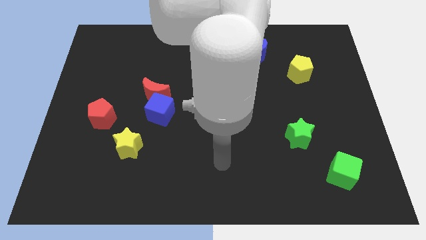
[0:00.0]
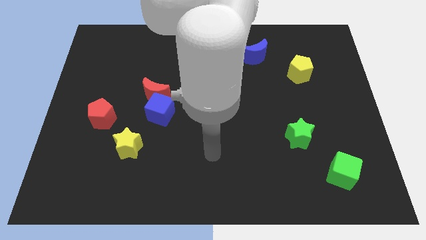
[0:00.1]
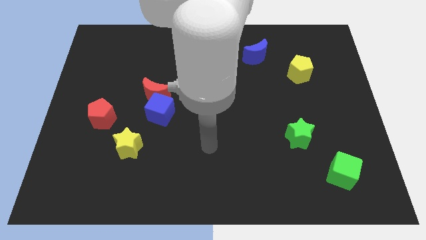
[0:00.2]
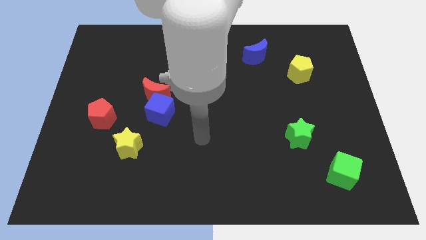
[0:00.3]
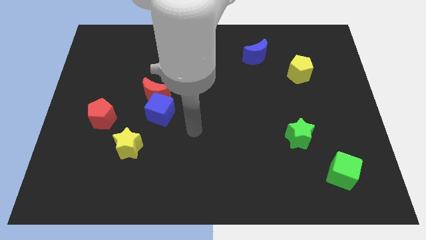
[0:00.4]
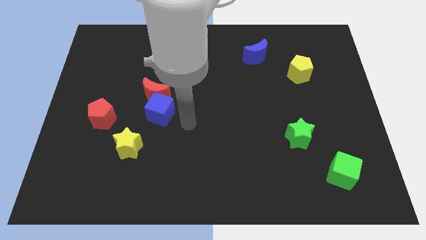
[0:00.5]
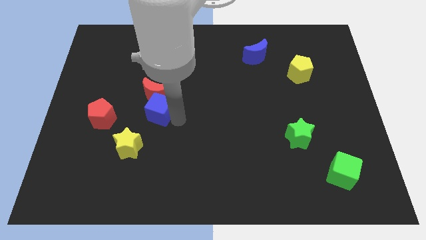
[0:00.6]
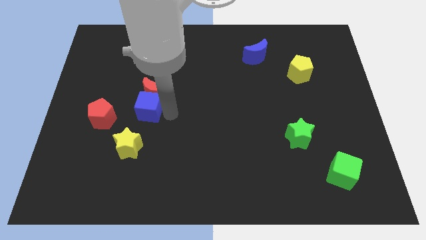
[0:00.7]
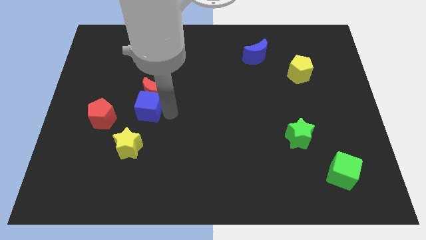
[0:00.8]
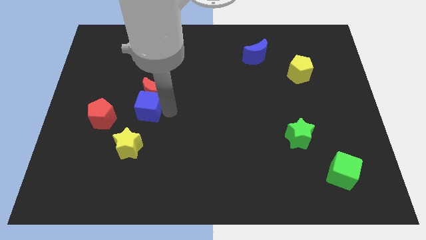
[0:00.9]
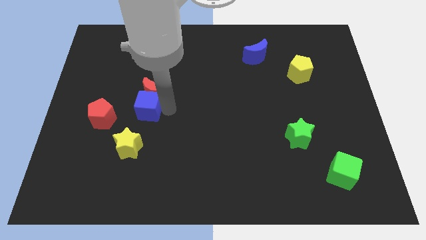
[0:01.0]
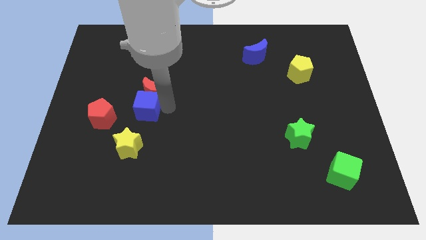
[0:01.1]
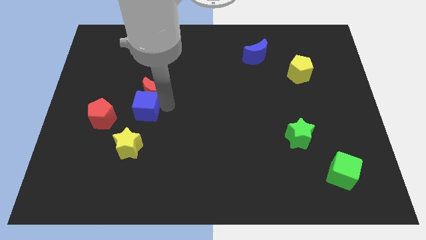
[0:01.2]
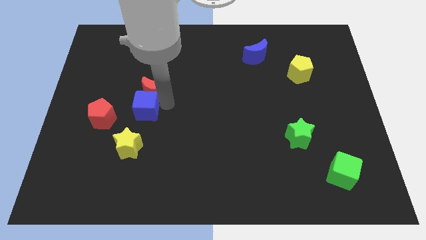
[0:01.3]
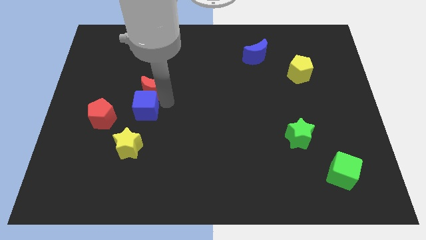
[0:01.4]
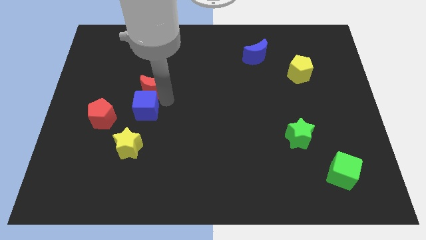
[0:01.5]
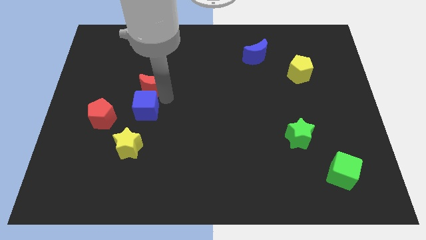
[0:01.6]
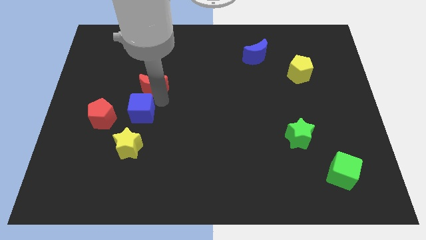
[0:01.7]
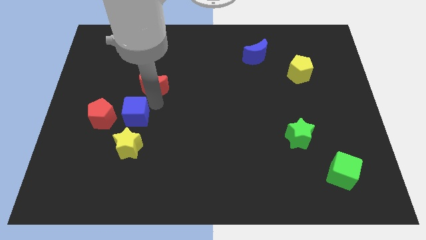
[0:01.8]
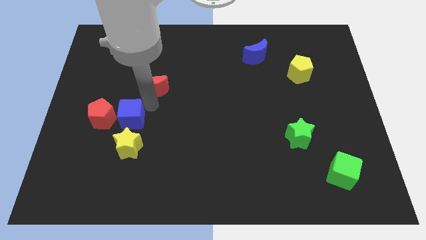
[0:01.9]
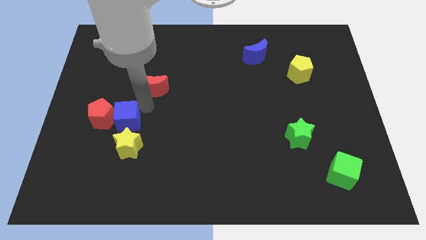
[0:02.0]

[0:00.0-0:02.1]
separate the red moon from the blue cube

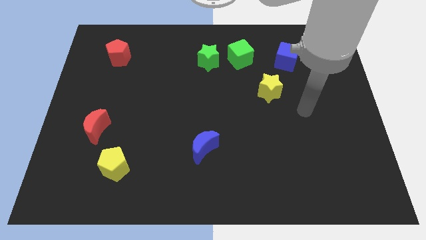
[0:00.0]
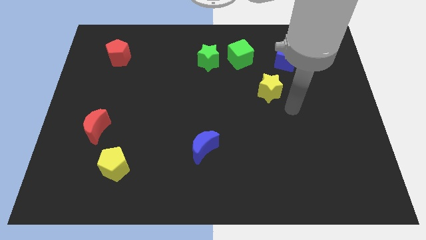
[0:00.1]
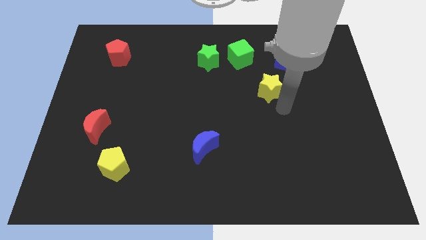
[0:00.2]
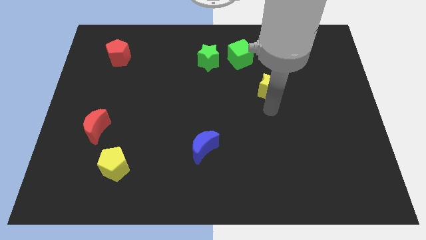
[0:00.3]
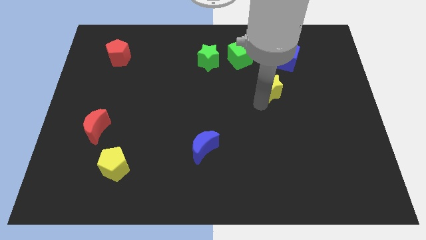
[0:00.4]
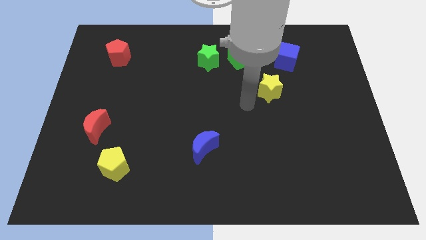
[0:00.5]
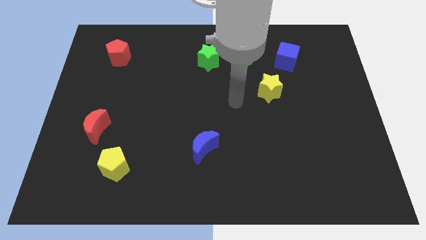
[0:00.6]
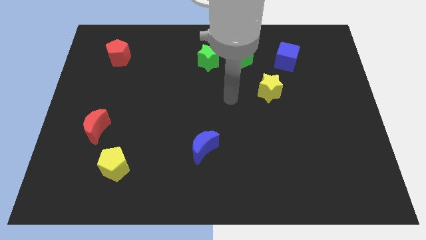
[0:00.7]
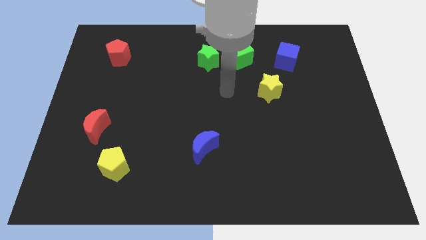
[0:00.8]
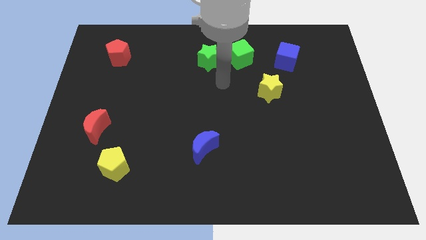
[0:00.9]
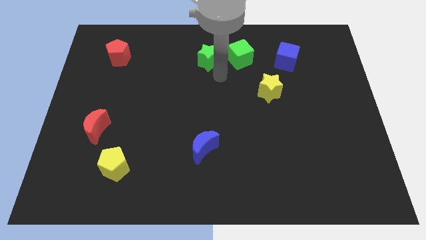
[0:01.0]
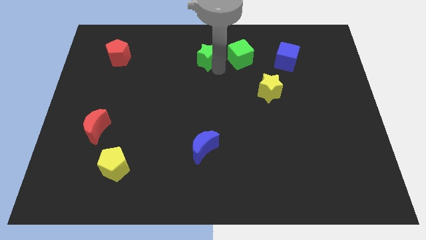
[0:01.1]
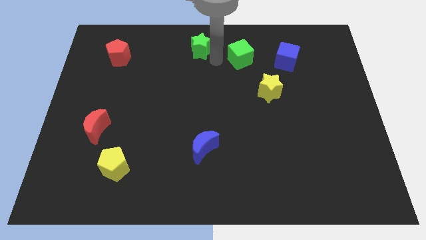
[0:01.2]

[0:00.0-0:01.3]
separate the green cube from the green star

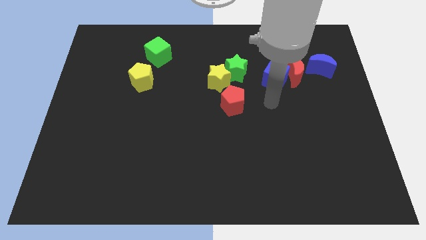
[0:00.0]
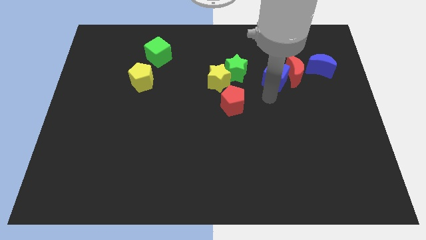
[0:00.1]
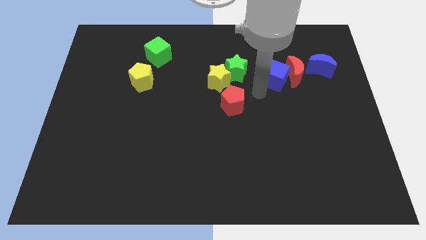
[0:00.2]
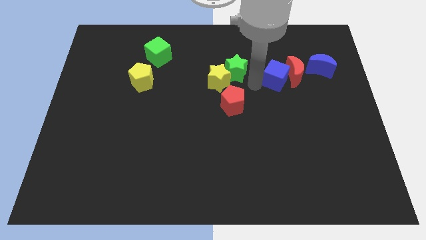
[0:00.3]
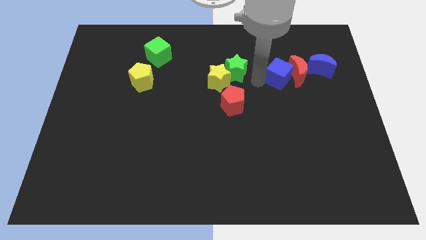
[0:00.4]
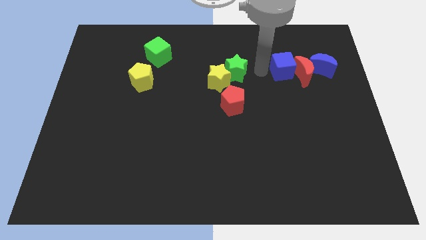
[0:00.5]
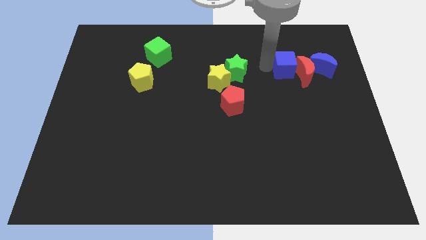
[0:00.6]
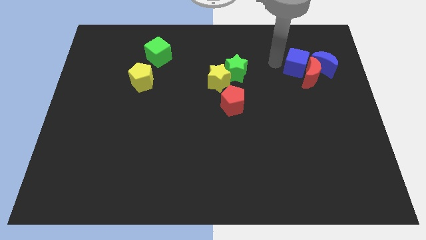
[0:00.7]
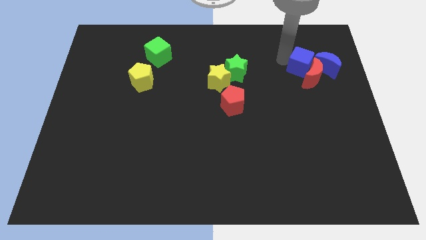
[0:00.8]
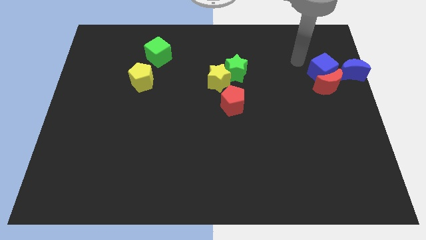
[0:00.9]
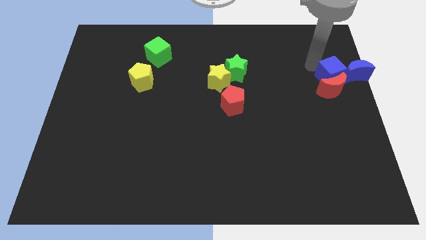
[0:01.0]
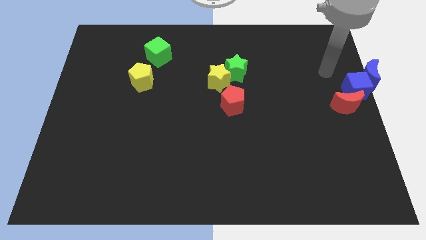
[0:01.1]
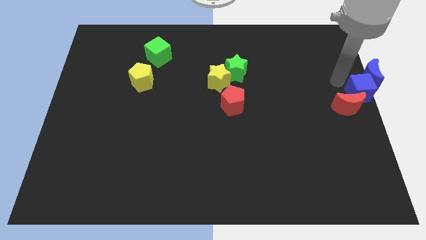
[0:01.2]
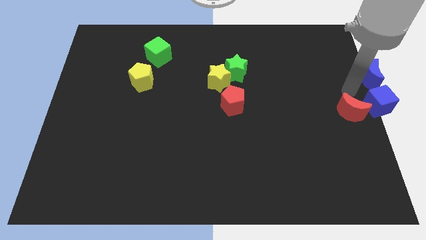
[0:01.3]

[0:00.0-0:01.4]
move the red moon away from the blue cube and blue moon

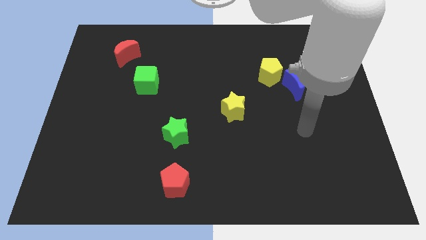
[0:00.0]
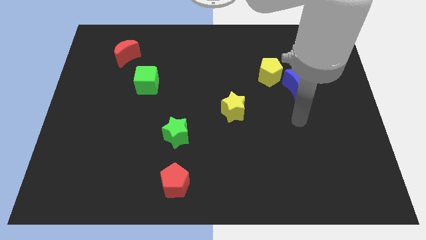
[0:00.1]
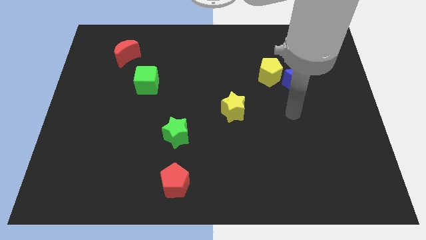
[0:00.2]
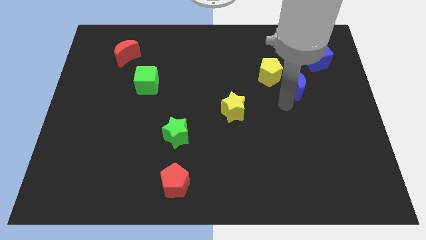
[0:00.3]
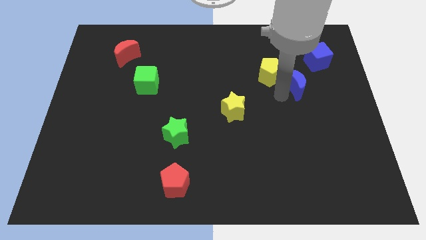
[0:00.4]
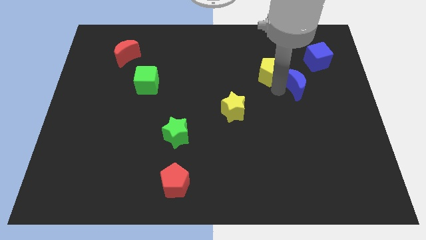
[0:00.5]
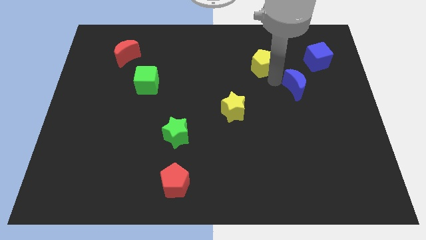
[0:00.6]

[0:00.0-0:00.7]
pull the blue moon apart from the yellow pentagon

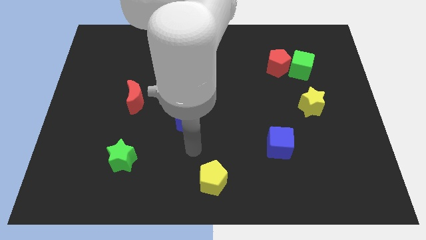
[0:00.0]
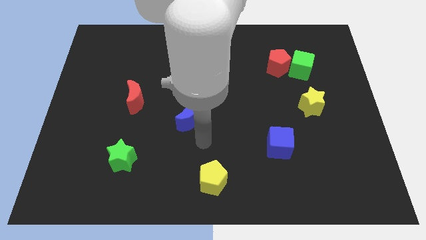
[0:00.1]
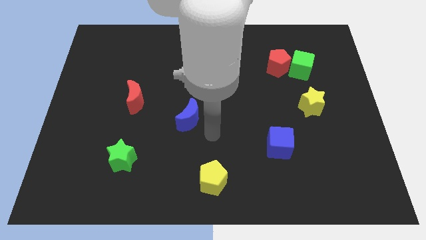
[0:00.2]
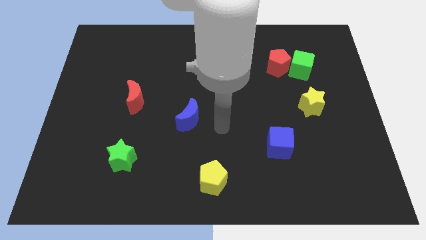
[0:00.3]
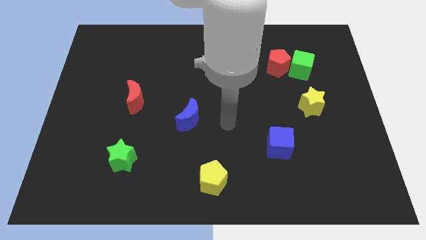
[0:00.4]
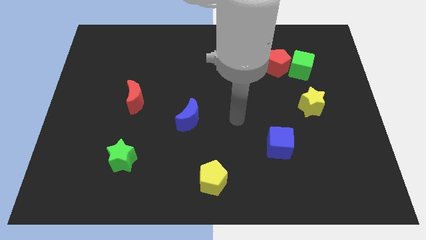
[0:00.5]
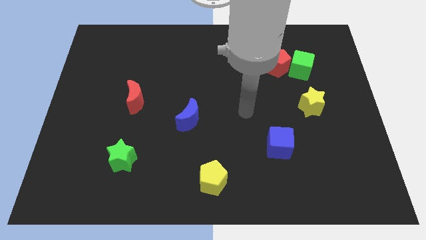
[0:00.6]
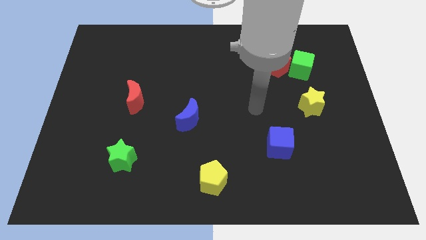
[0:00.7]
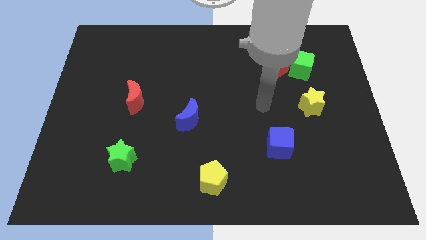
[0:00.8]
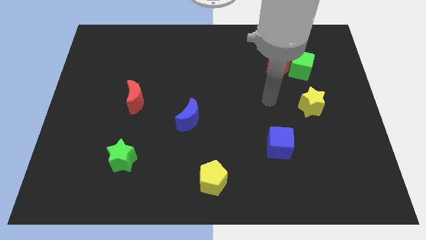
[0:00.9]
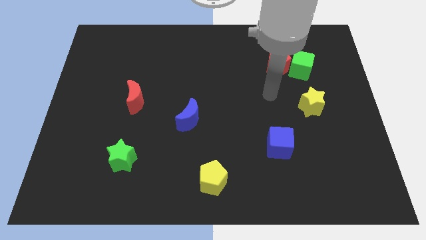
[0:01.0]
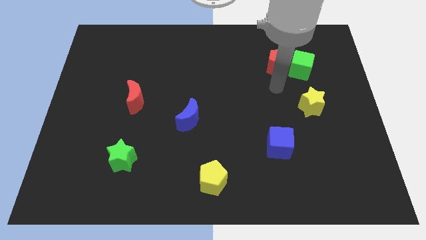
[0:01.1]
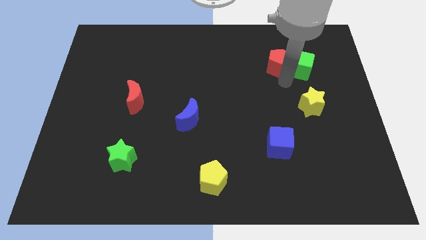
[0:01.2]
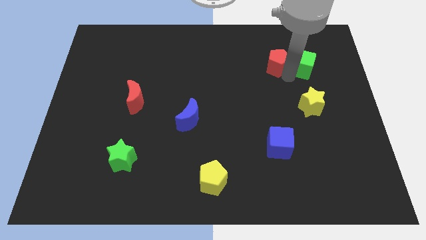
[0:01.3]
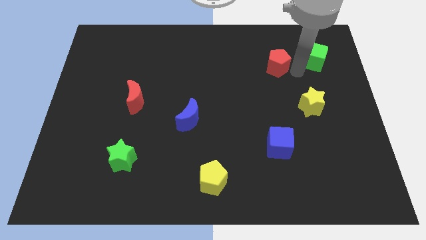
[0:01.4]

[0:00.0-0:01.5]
move the red pentagon away from the green cube

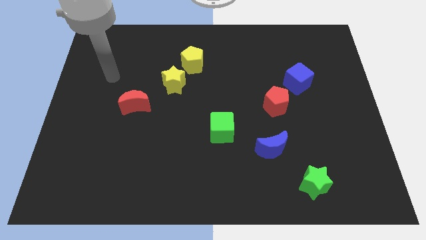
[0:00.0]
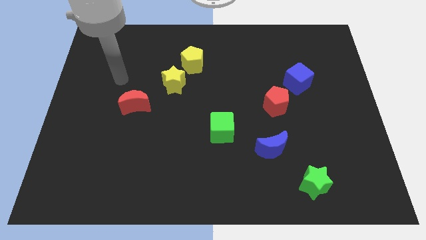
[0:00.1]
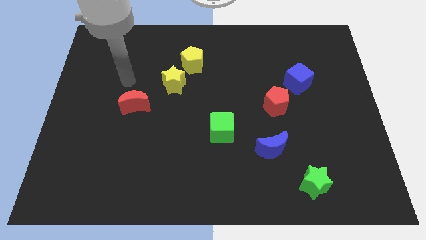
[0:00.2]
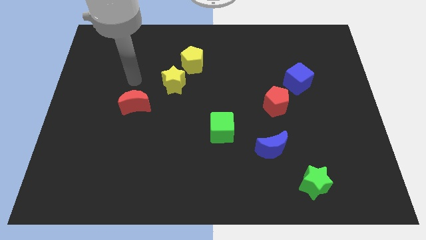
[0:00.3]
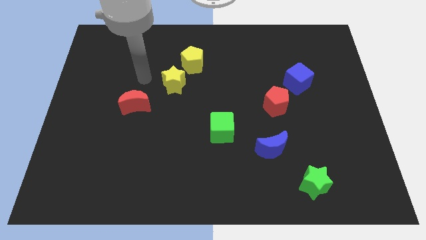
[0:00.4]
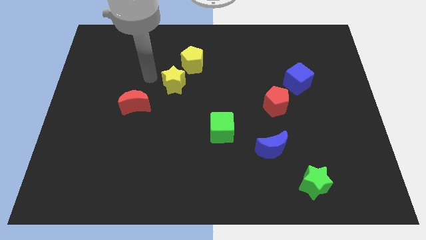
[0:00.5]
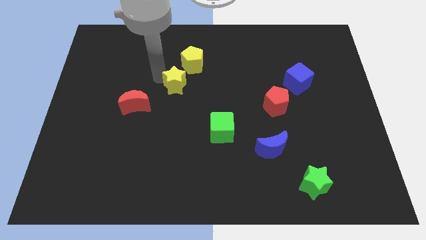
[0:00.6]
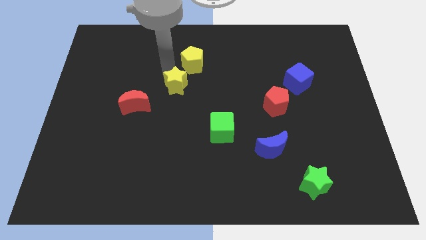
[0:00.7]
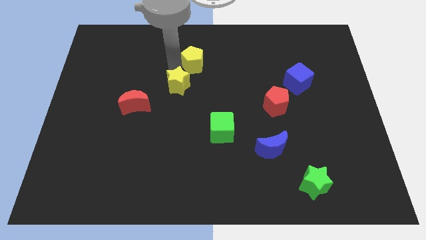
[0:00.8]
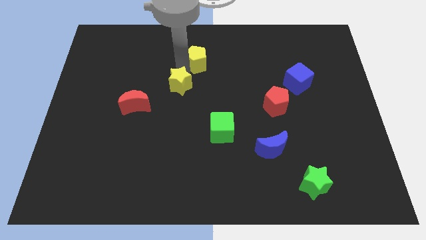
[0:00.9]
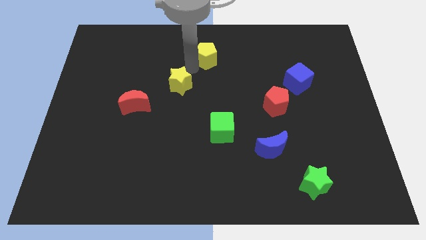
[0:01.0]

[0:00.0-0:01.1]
move the yellow star away from the yellow pentagon

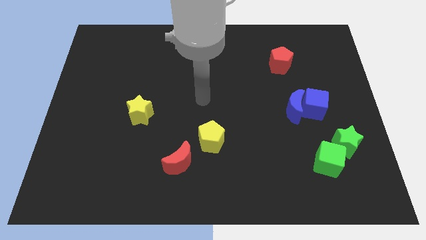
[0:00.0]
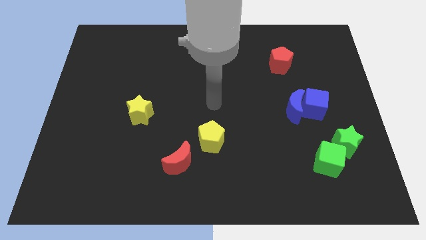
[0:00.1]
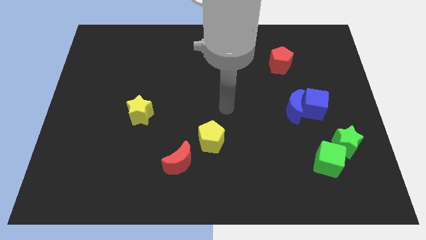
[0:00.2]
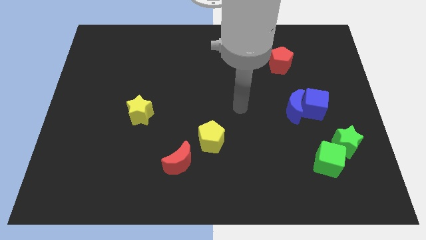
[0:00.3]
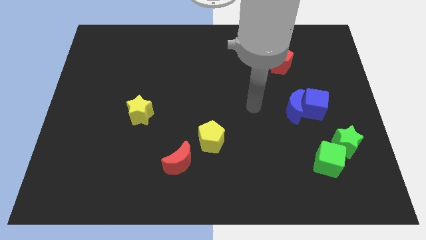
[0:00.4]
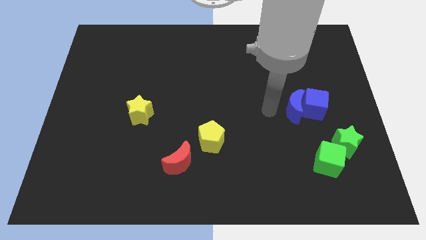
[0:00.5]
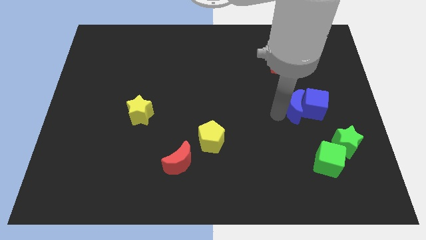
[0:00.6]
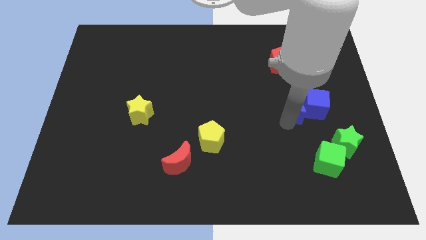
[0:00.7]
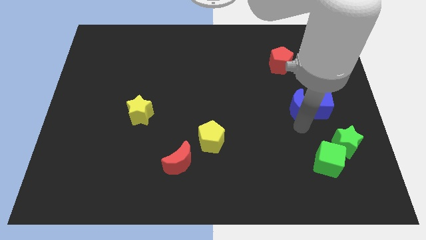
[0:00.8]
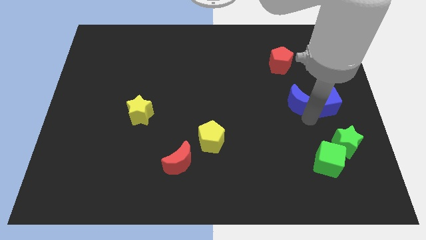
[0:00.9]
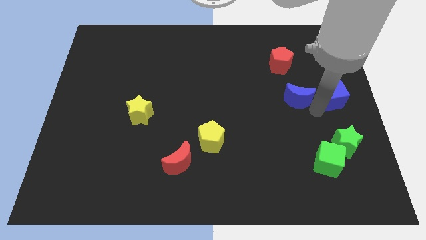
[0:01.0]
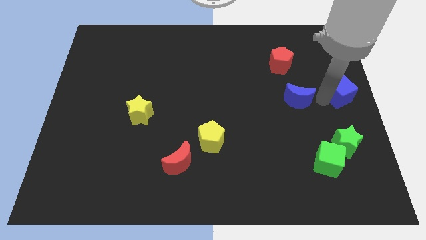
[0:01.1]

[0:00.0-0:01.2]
move the blue moon away from the blue cube
